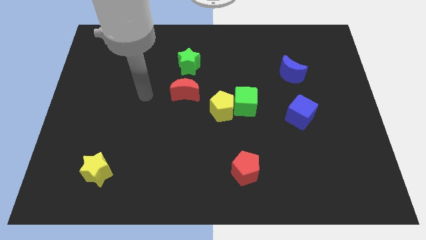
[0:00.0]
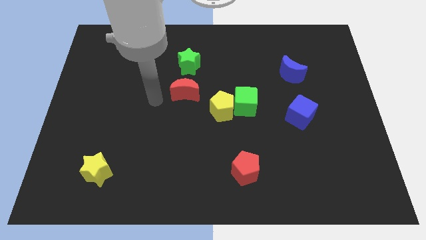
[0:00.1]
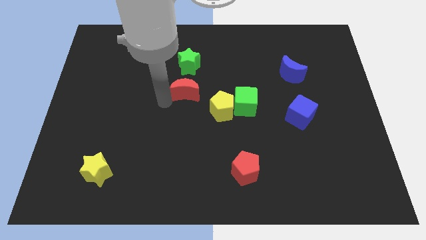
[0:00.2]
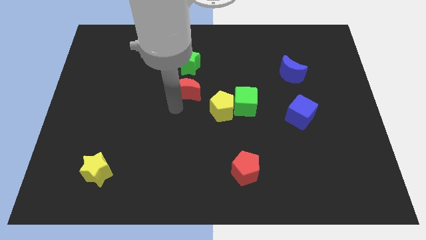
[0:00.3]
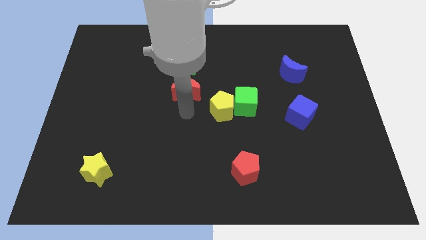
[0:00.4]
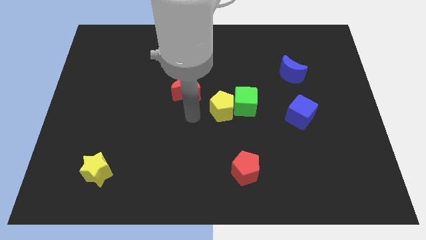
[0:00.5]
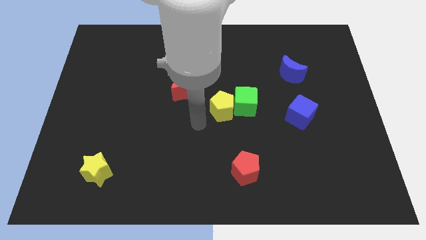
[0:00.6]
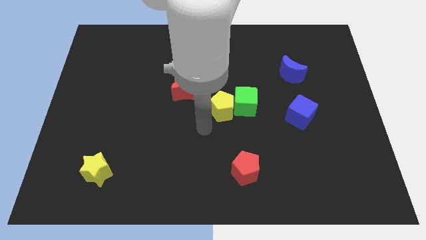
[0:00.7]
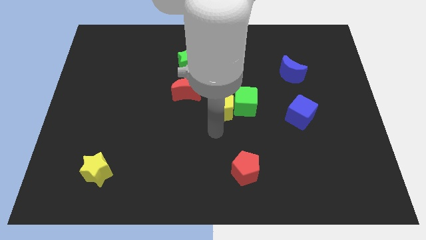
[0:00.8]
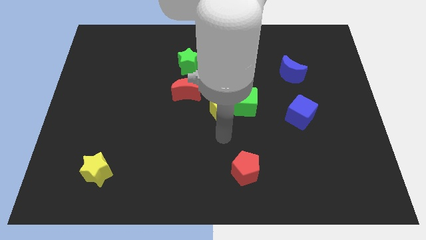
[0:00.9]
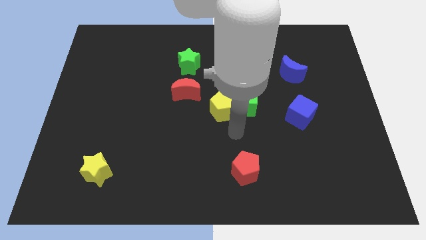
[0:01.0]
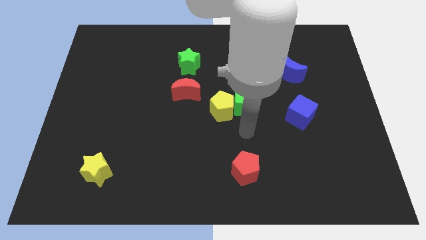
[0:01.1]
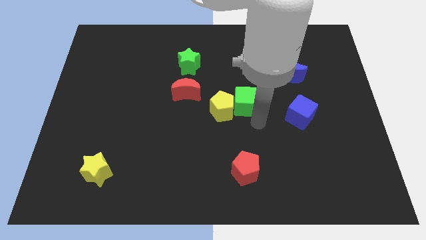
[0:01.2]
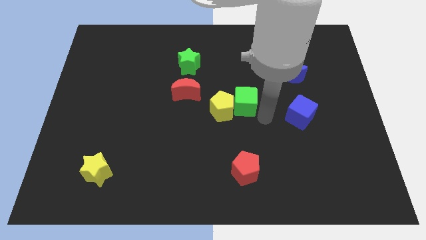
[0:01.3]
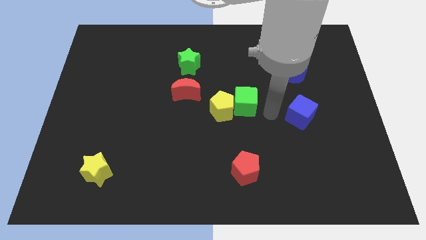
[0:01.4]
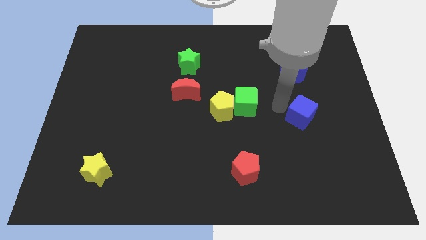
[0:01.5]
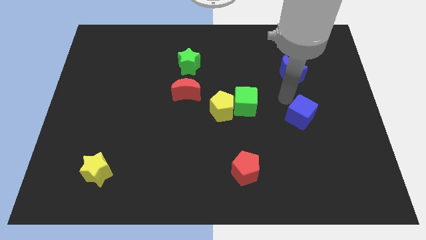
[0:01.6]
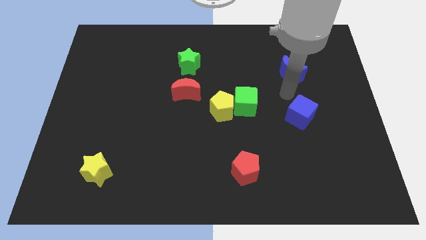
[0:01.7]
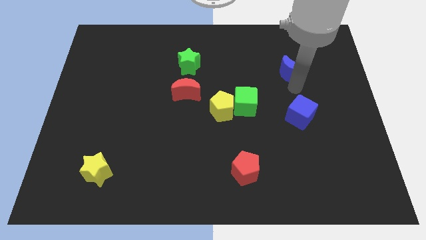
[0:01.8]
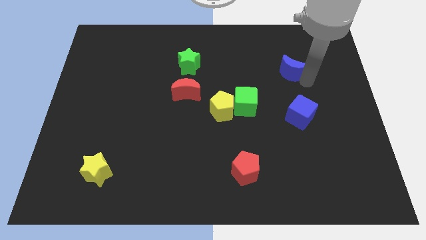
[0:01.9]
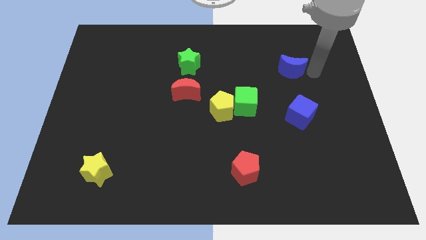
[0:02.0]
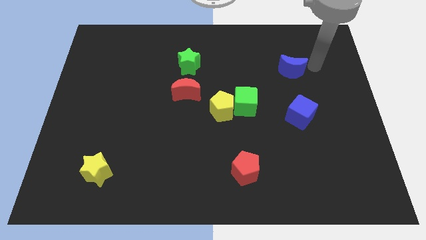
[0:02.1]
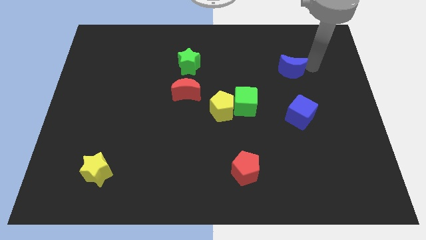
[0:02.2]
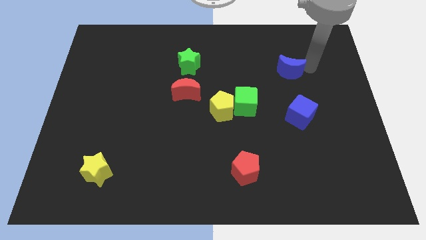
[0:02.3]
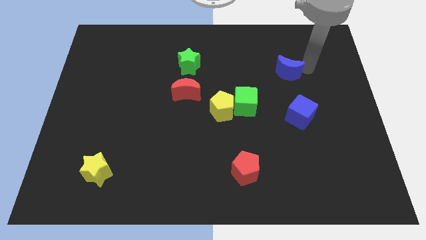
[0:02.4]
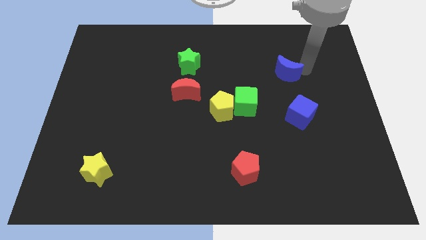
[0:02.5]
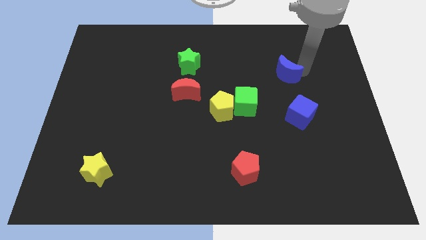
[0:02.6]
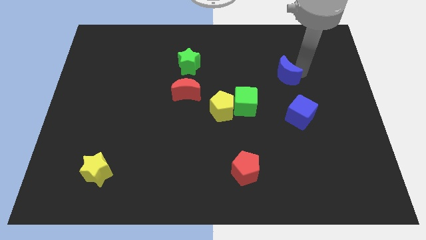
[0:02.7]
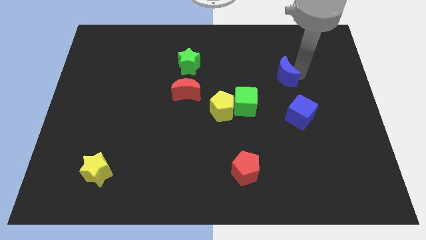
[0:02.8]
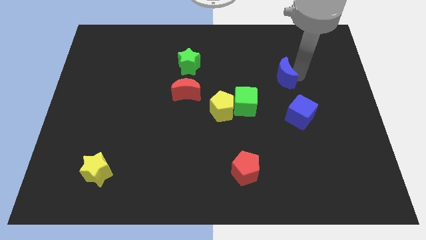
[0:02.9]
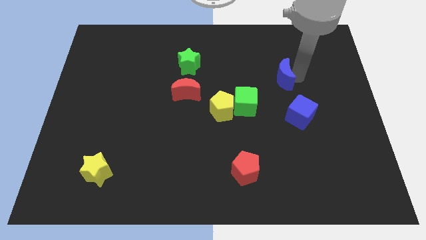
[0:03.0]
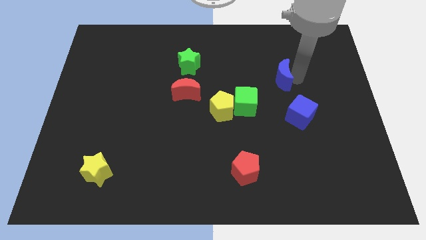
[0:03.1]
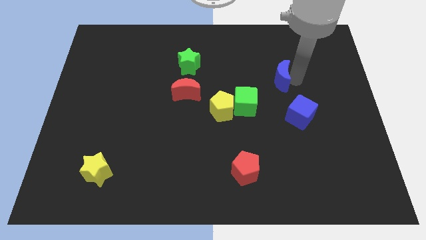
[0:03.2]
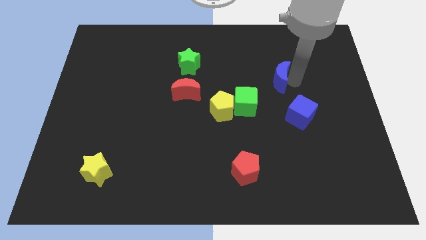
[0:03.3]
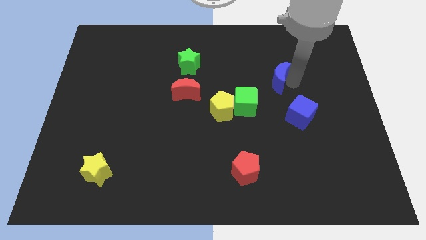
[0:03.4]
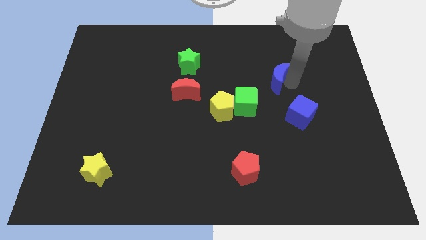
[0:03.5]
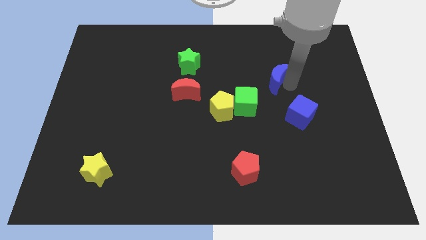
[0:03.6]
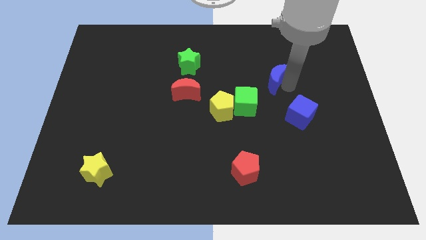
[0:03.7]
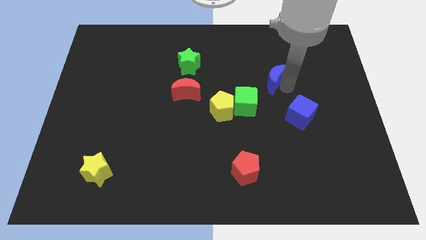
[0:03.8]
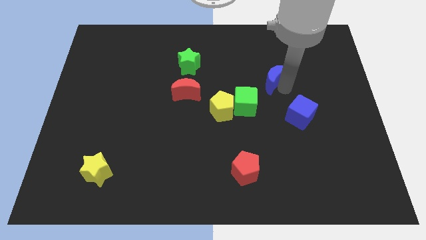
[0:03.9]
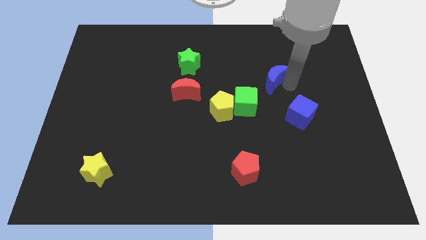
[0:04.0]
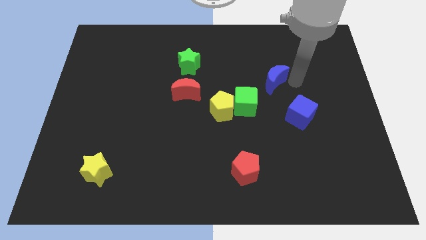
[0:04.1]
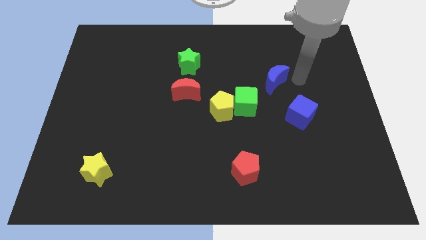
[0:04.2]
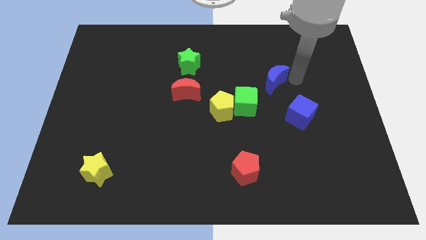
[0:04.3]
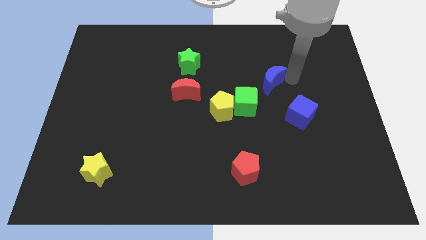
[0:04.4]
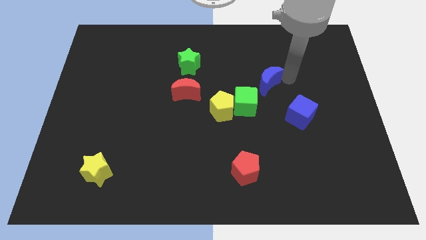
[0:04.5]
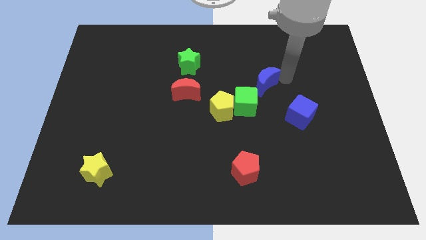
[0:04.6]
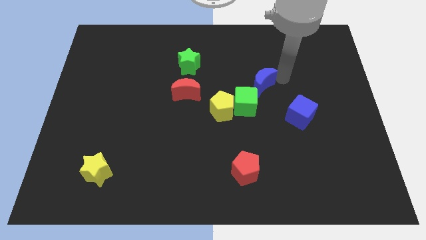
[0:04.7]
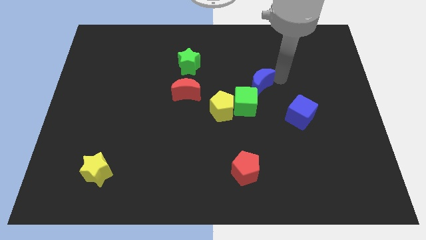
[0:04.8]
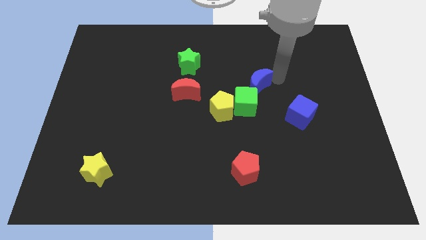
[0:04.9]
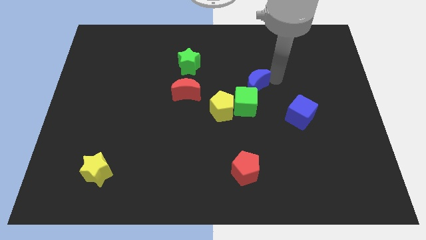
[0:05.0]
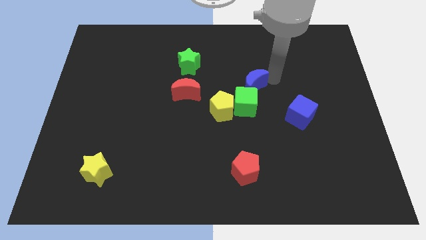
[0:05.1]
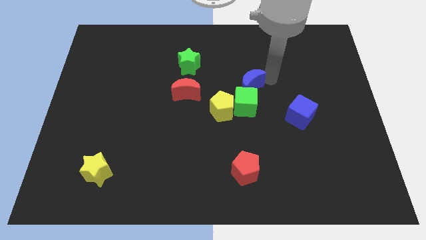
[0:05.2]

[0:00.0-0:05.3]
put the blue moon to the right of the red moon

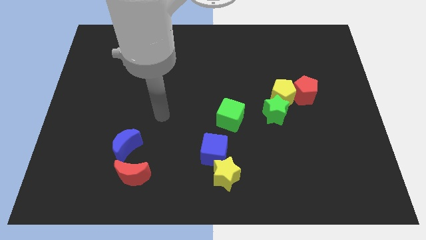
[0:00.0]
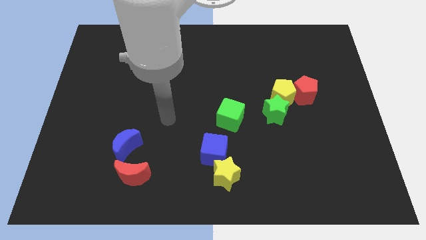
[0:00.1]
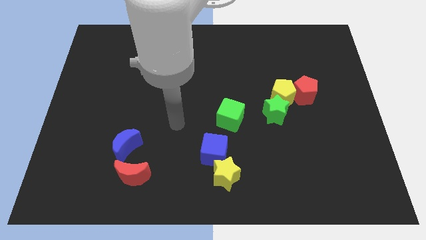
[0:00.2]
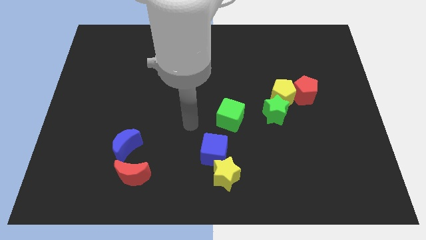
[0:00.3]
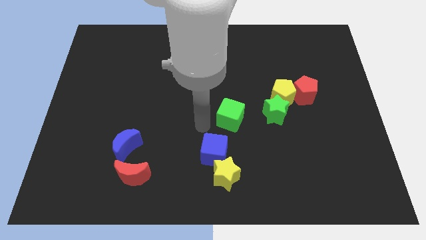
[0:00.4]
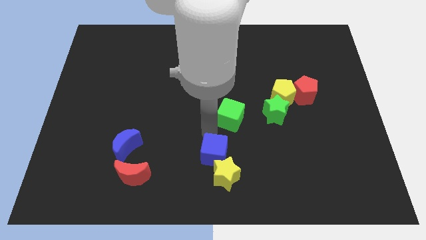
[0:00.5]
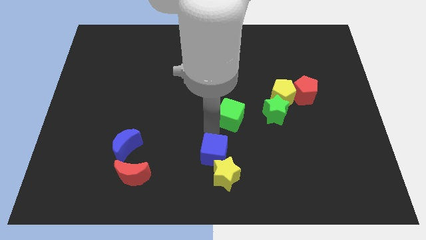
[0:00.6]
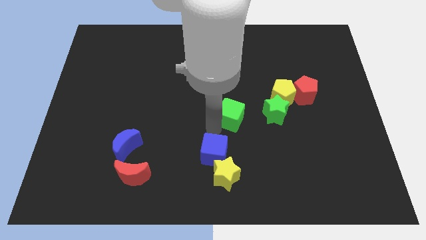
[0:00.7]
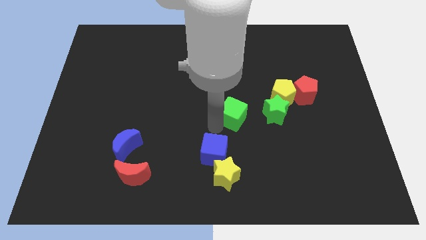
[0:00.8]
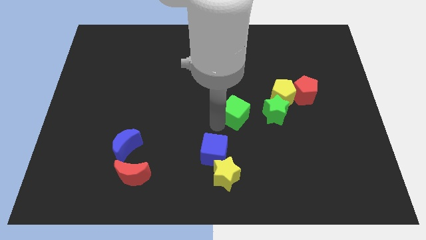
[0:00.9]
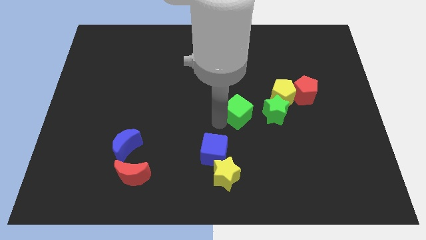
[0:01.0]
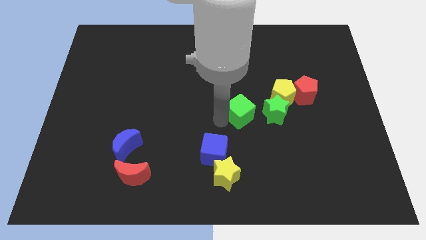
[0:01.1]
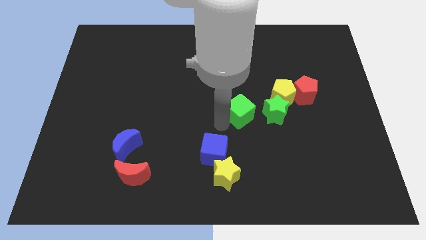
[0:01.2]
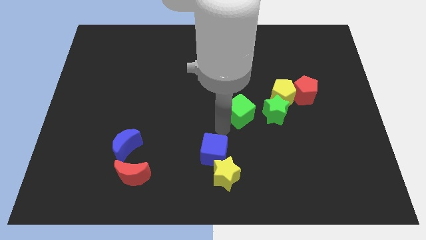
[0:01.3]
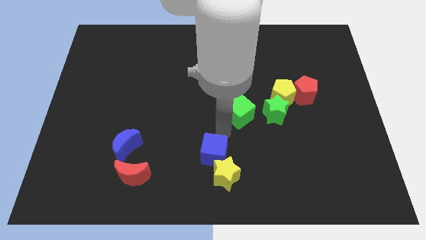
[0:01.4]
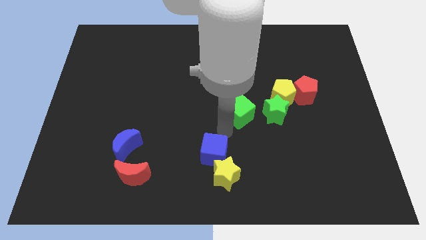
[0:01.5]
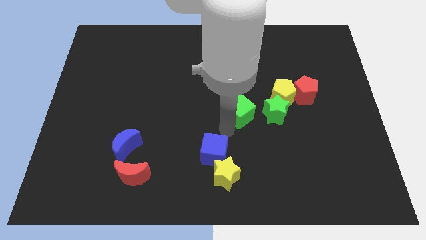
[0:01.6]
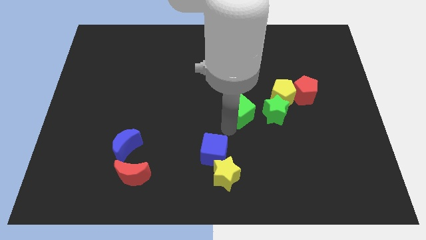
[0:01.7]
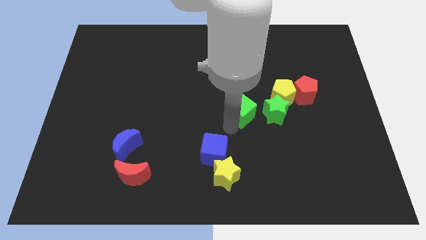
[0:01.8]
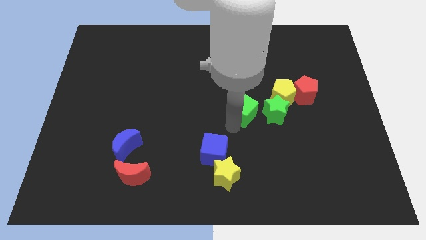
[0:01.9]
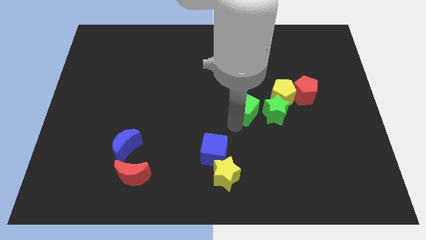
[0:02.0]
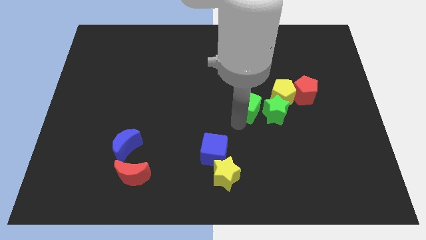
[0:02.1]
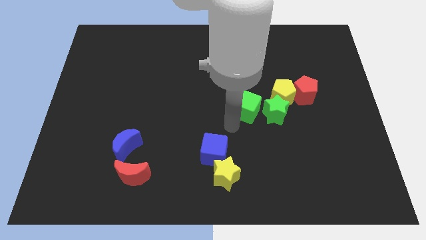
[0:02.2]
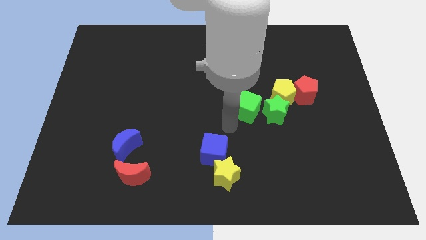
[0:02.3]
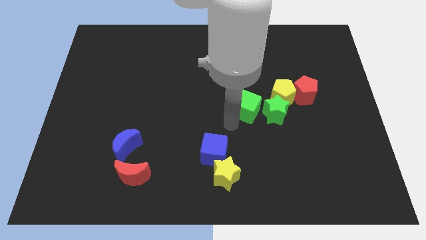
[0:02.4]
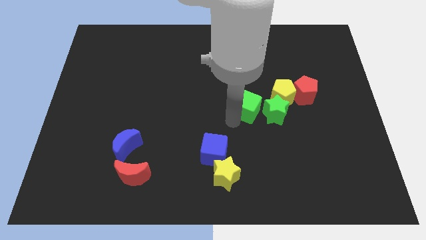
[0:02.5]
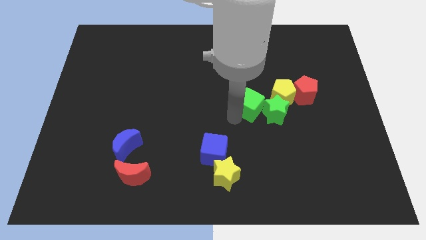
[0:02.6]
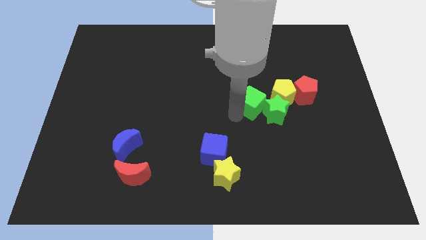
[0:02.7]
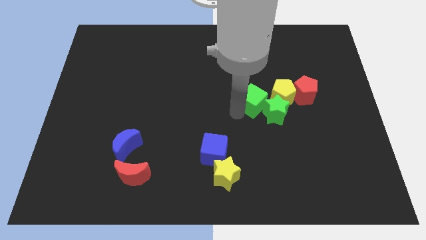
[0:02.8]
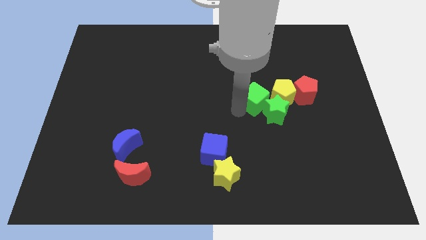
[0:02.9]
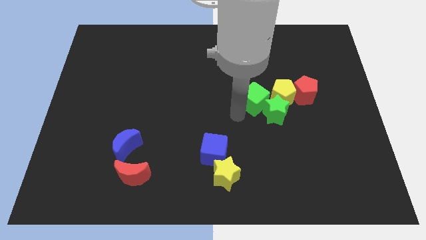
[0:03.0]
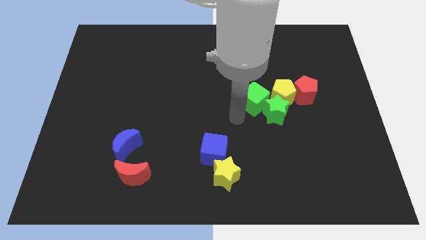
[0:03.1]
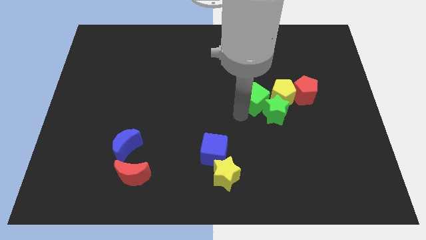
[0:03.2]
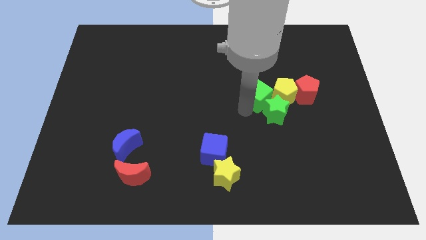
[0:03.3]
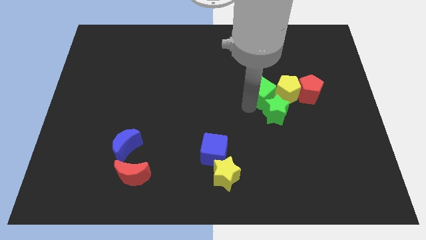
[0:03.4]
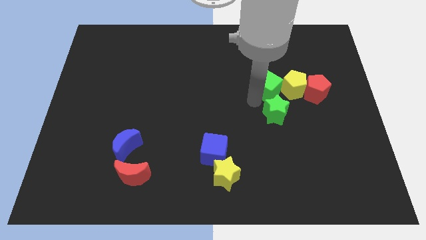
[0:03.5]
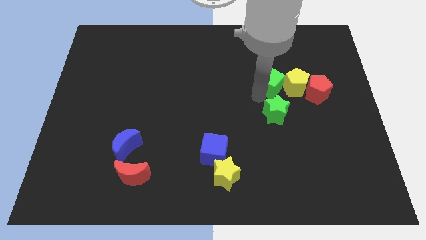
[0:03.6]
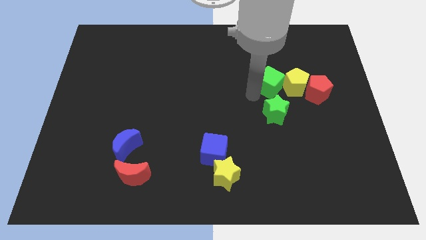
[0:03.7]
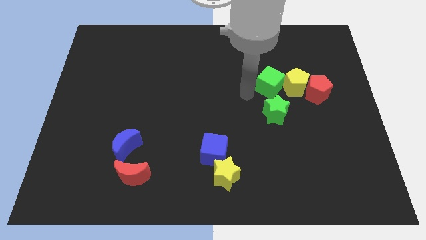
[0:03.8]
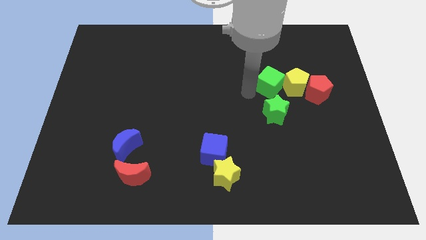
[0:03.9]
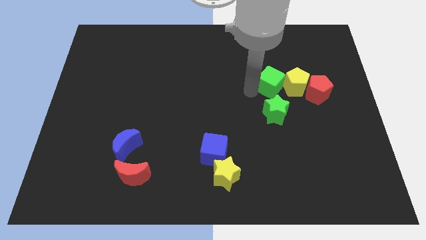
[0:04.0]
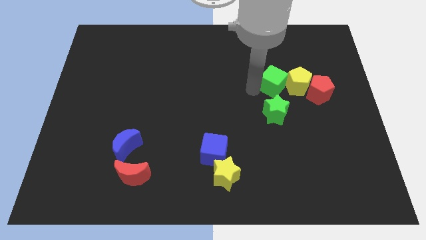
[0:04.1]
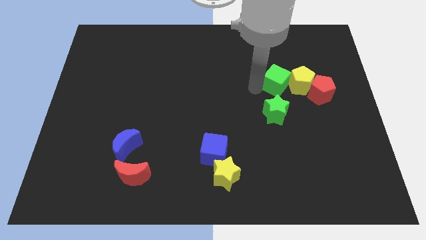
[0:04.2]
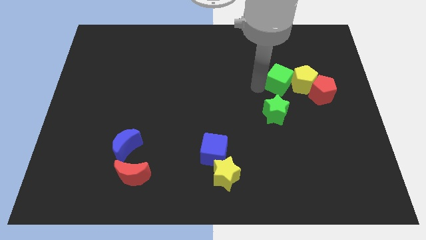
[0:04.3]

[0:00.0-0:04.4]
put the green cube to the top left of the red pentagon
